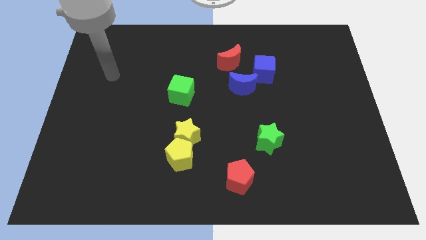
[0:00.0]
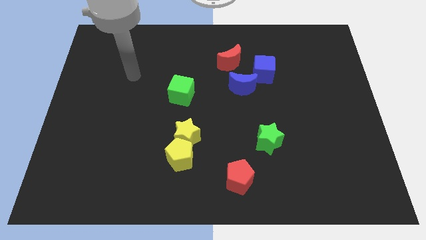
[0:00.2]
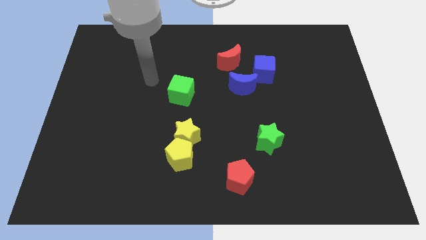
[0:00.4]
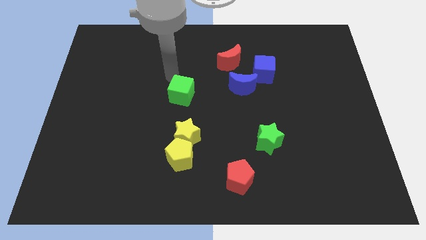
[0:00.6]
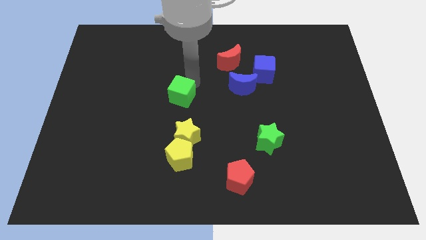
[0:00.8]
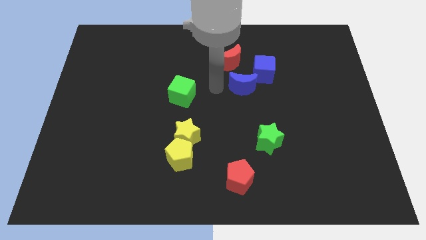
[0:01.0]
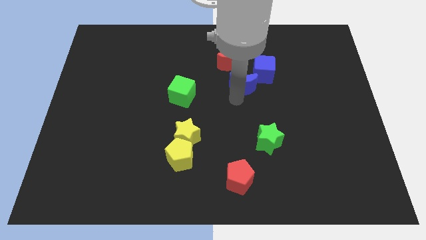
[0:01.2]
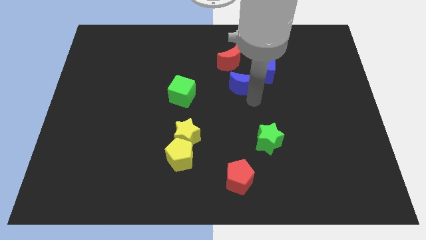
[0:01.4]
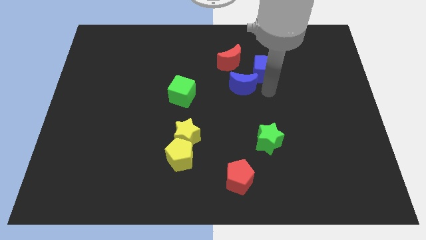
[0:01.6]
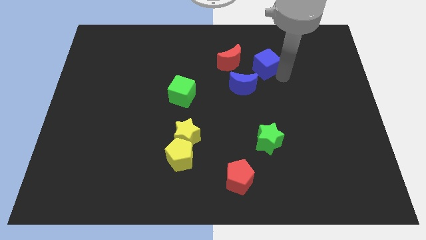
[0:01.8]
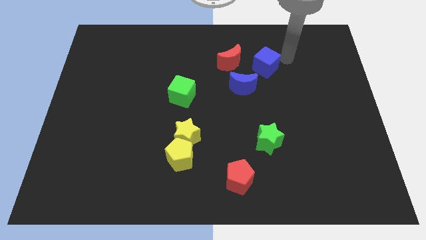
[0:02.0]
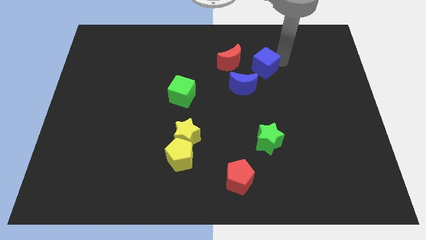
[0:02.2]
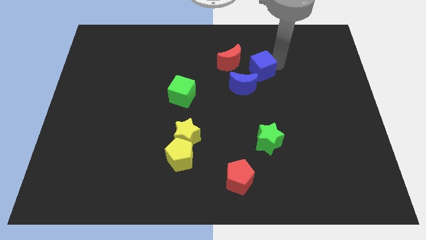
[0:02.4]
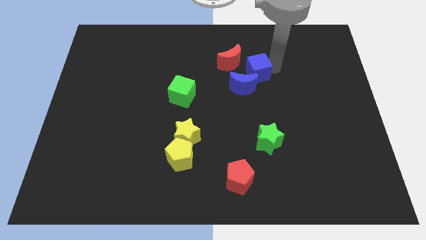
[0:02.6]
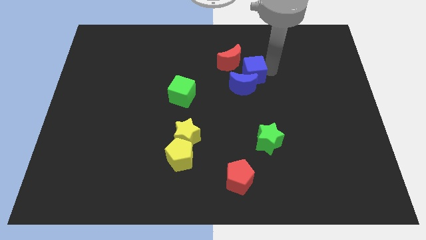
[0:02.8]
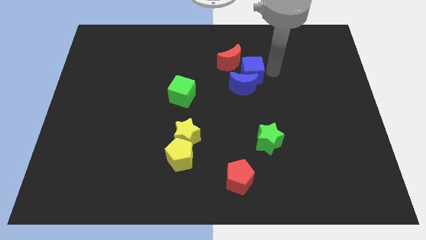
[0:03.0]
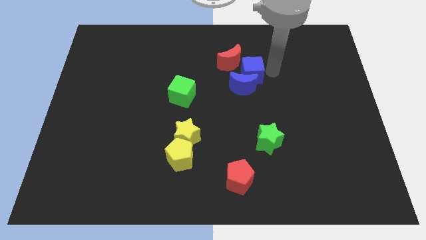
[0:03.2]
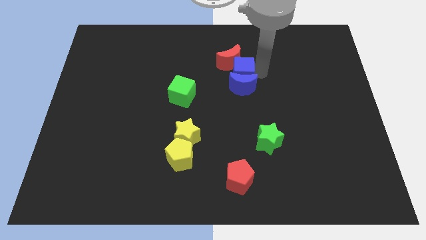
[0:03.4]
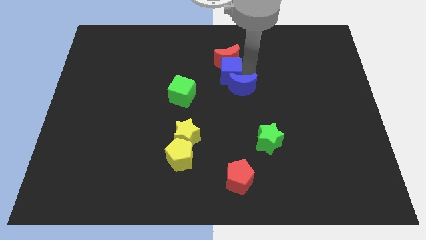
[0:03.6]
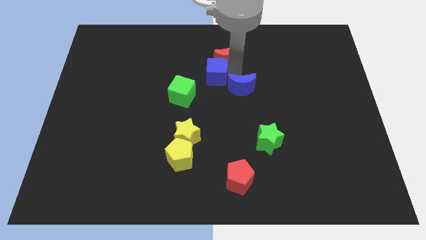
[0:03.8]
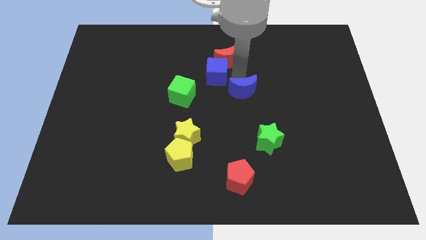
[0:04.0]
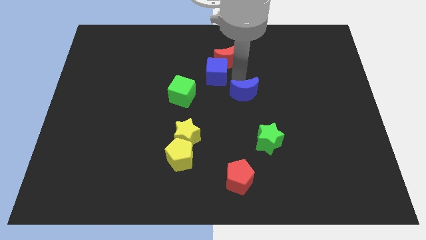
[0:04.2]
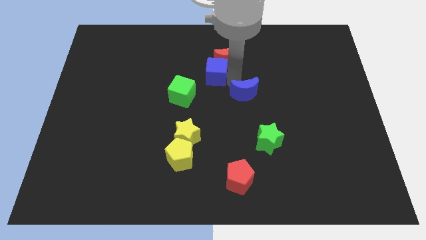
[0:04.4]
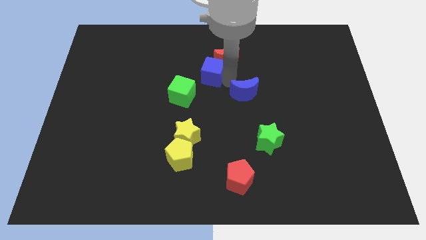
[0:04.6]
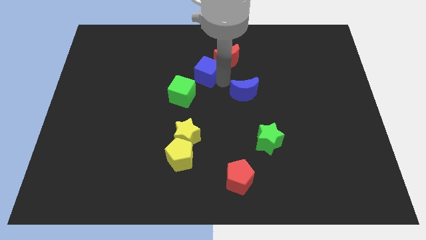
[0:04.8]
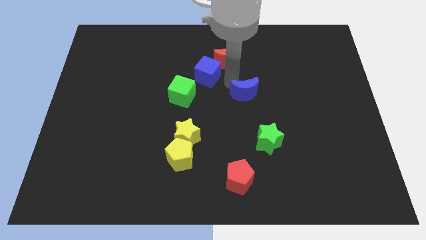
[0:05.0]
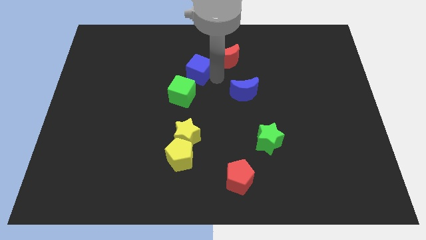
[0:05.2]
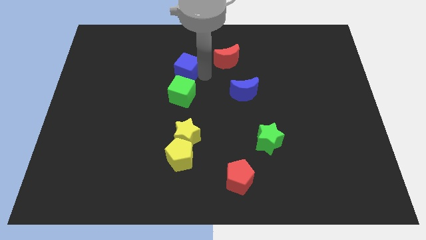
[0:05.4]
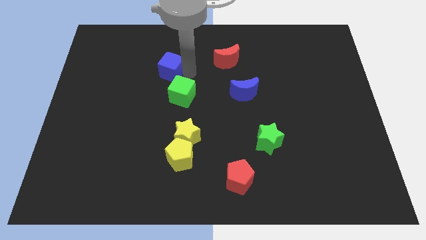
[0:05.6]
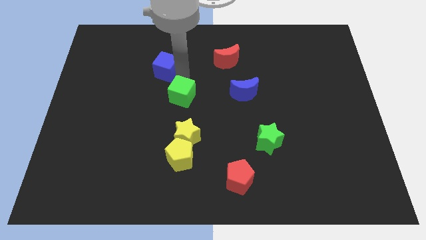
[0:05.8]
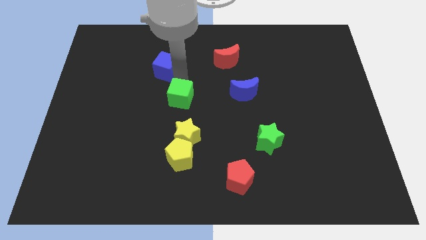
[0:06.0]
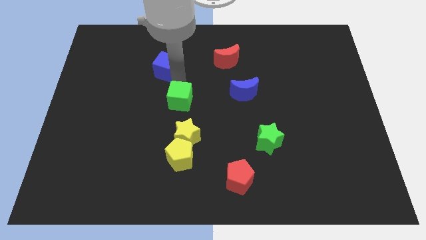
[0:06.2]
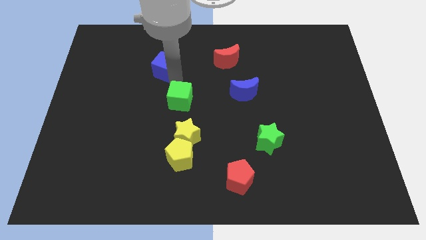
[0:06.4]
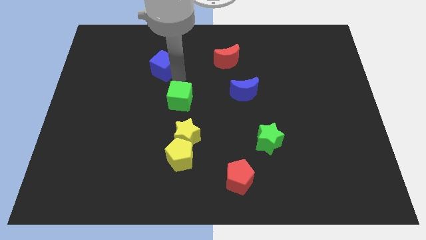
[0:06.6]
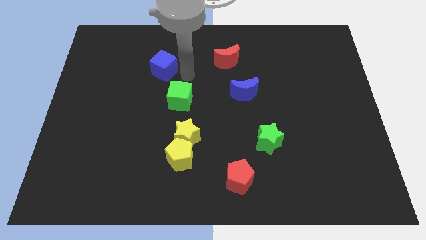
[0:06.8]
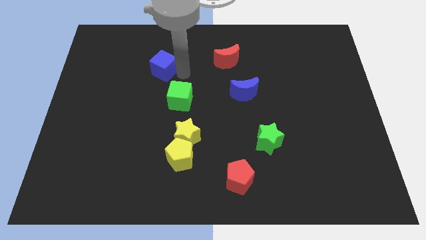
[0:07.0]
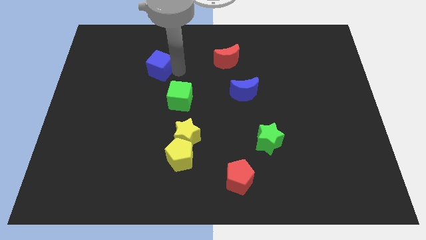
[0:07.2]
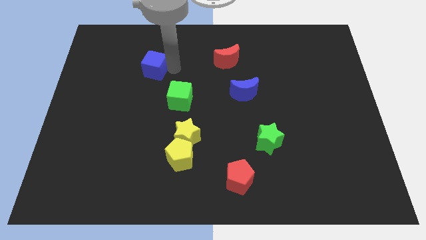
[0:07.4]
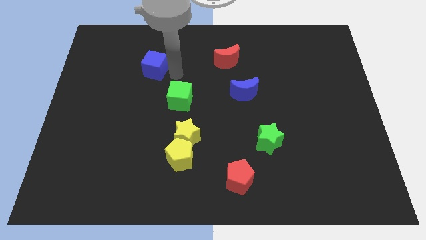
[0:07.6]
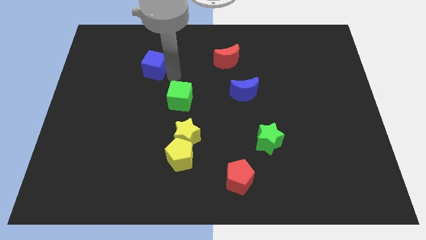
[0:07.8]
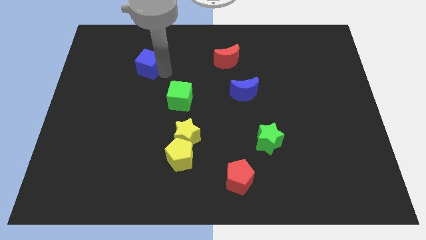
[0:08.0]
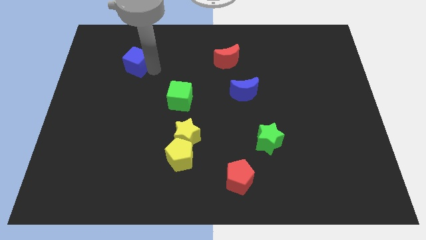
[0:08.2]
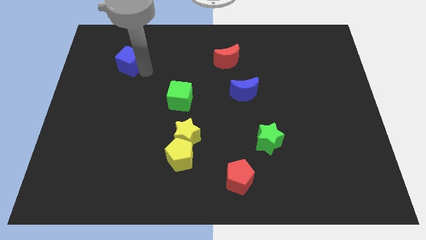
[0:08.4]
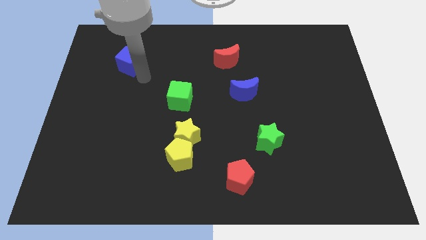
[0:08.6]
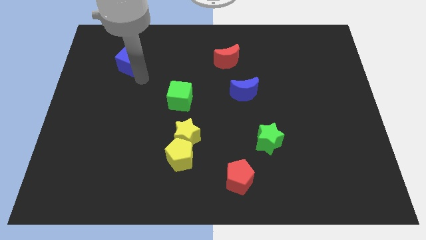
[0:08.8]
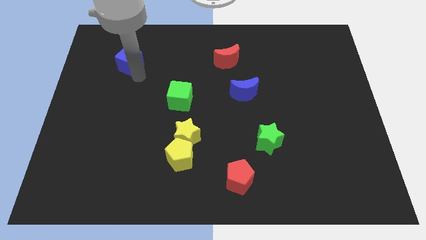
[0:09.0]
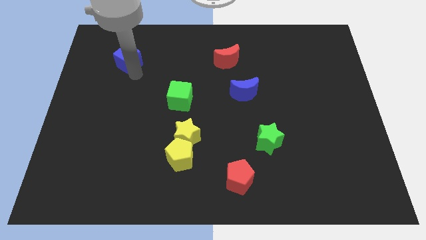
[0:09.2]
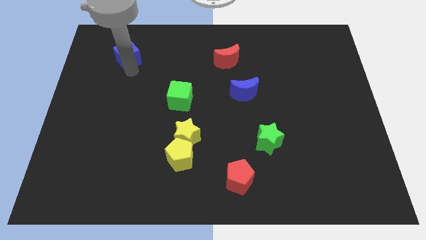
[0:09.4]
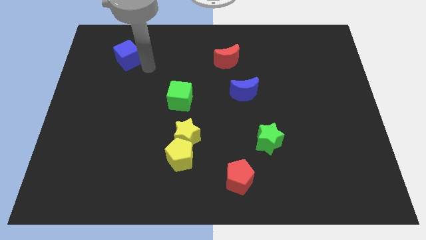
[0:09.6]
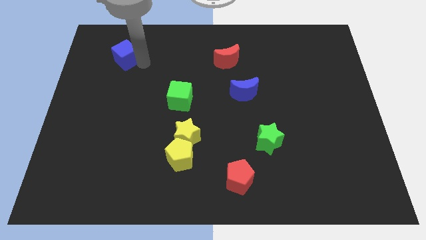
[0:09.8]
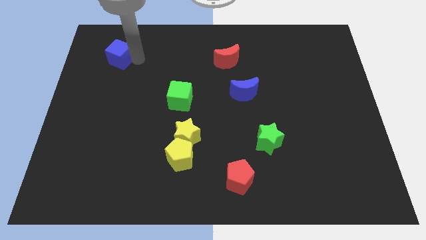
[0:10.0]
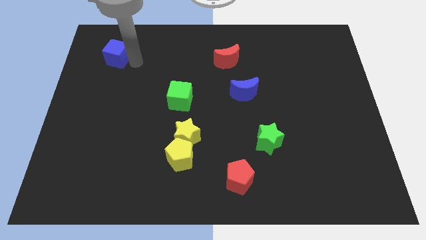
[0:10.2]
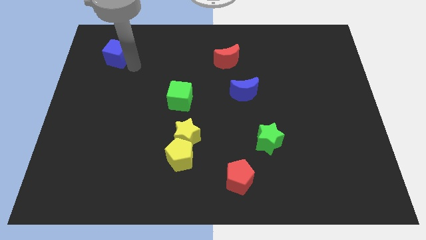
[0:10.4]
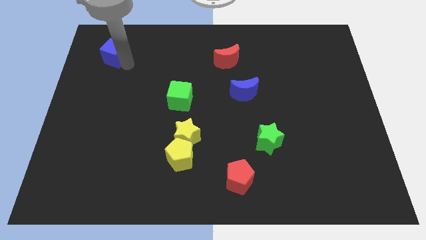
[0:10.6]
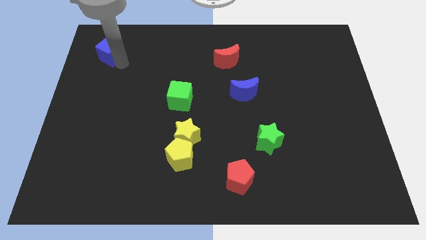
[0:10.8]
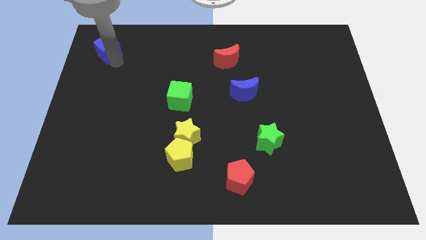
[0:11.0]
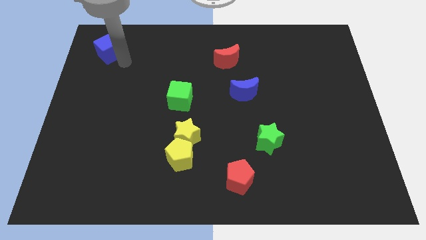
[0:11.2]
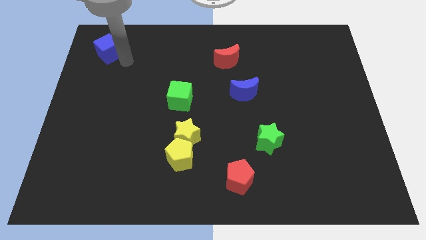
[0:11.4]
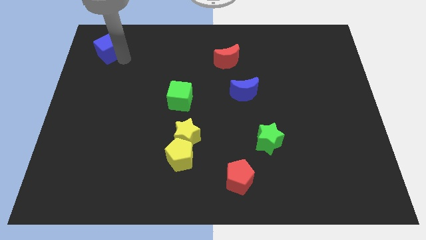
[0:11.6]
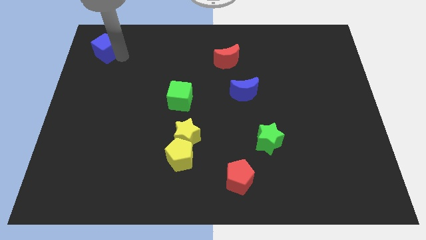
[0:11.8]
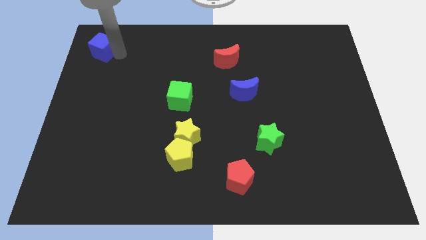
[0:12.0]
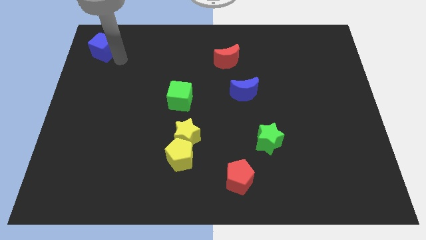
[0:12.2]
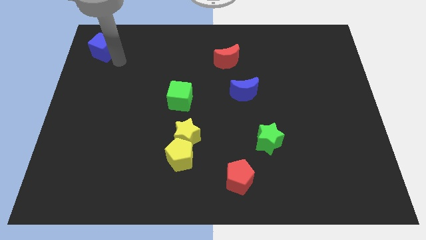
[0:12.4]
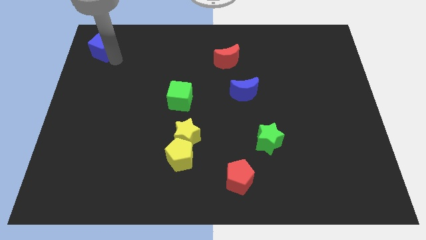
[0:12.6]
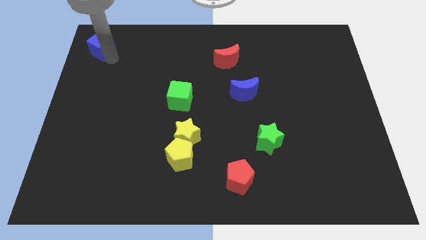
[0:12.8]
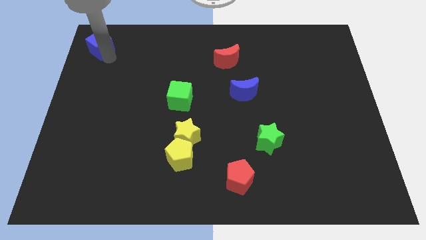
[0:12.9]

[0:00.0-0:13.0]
move the blue cube to the upper left corner

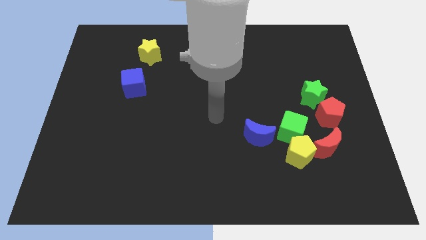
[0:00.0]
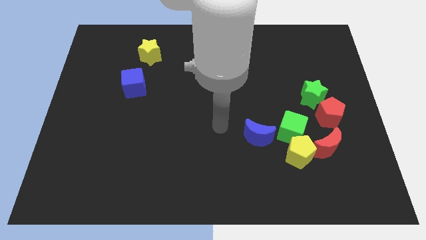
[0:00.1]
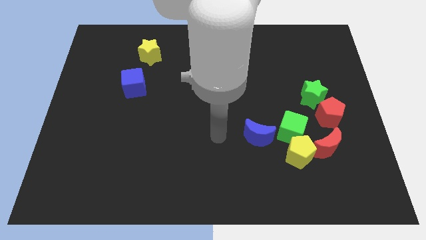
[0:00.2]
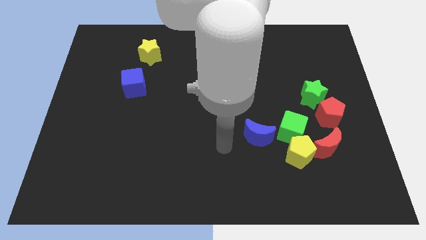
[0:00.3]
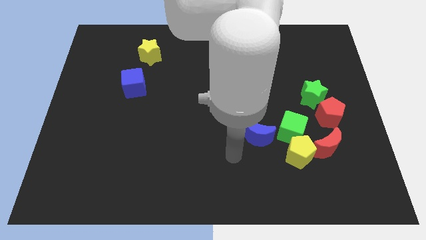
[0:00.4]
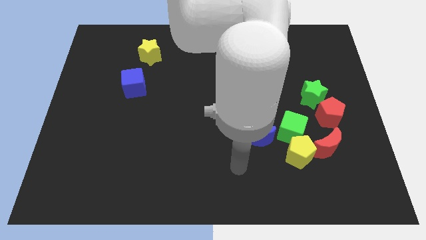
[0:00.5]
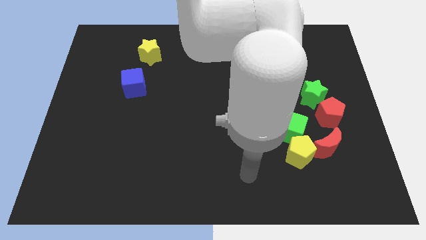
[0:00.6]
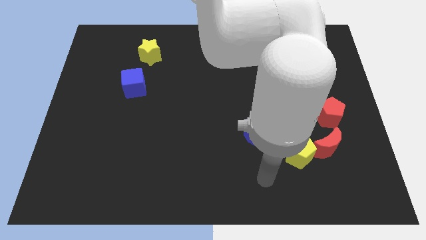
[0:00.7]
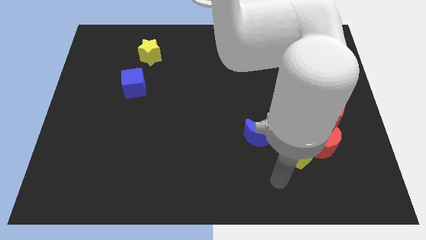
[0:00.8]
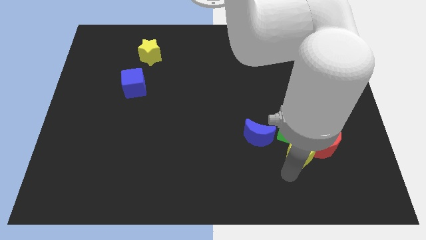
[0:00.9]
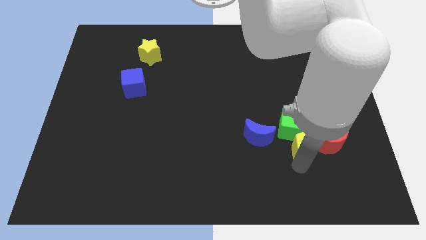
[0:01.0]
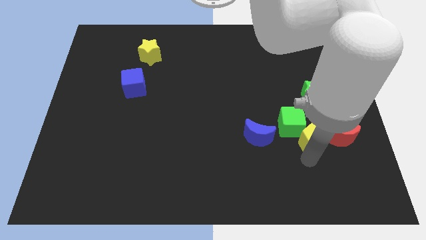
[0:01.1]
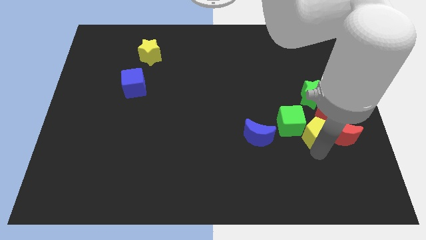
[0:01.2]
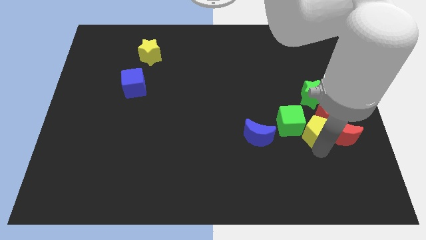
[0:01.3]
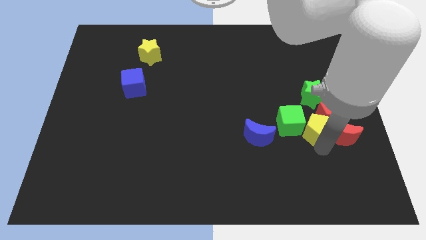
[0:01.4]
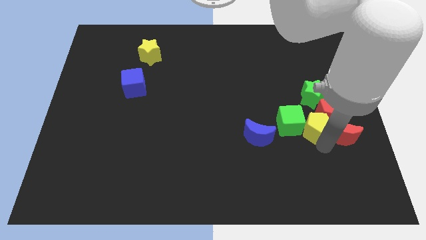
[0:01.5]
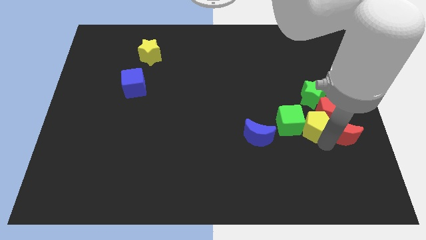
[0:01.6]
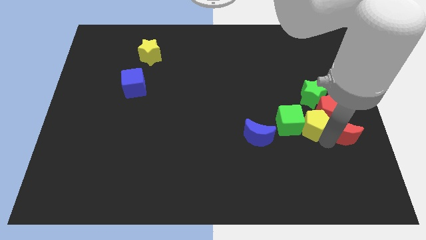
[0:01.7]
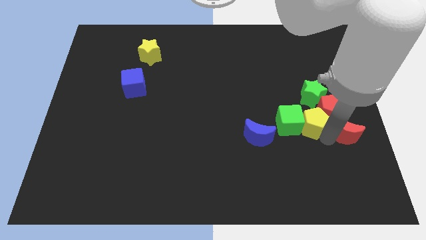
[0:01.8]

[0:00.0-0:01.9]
put the red moon to the right side of the board

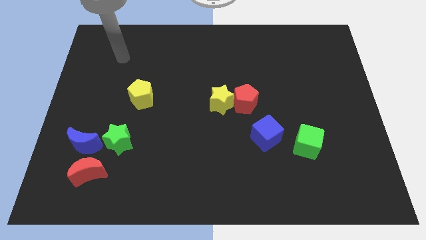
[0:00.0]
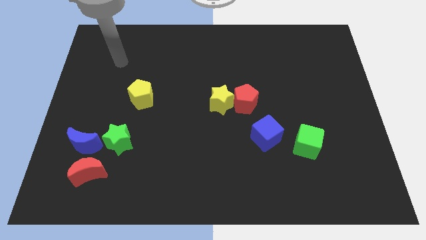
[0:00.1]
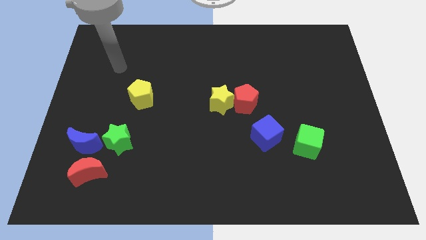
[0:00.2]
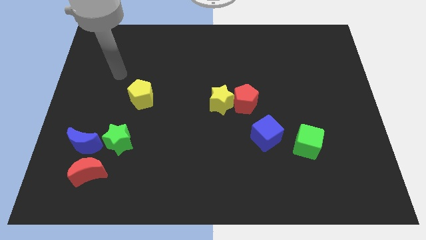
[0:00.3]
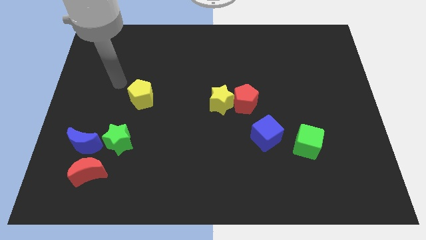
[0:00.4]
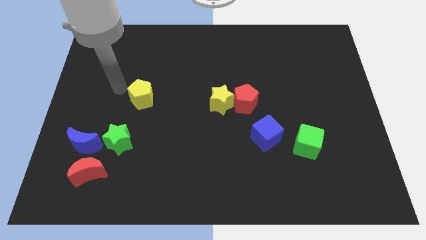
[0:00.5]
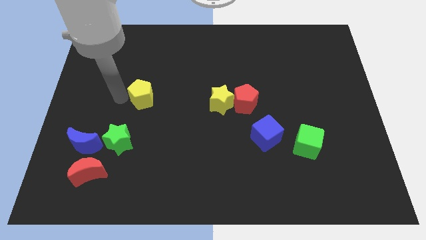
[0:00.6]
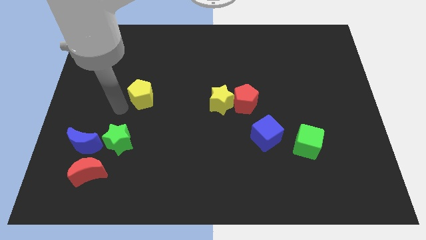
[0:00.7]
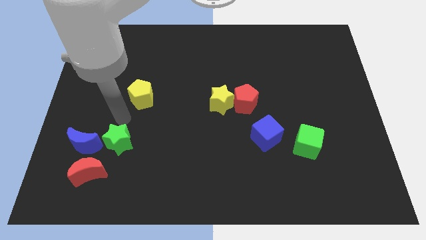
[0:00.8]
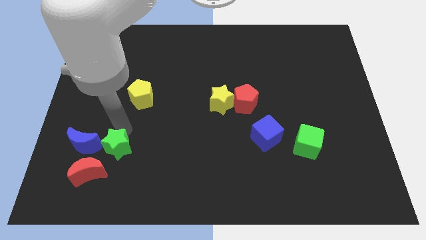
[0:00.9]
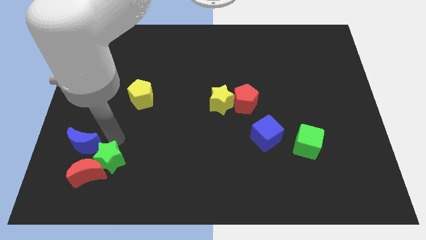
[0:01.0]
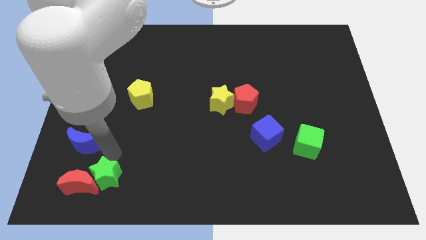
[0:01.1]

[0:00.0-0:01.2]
slide the red moon to the bottom left
